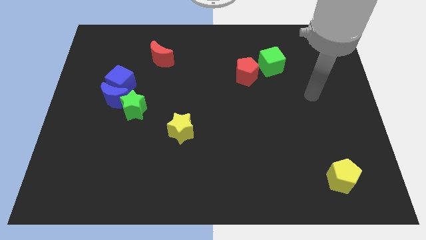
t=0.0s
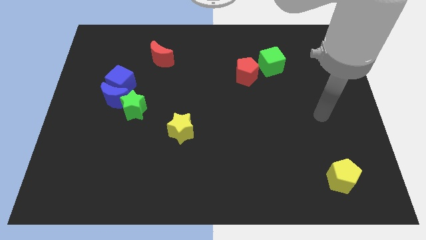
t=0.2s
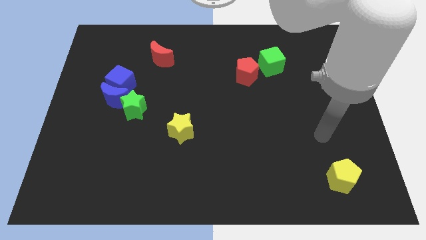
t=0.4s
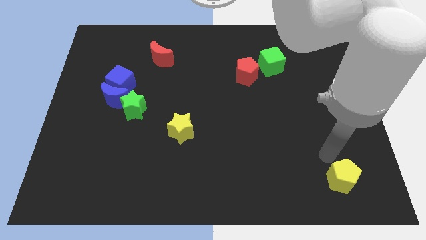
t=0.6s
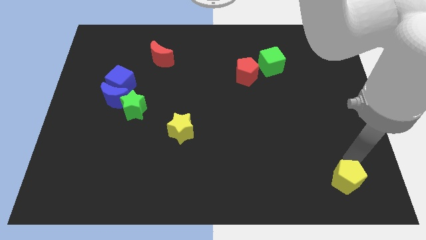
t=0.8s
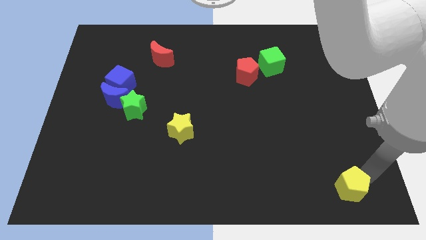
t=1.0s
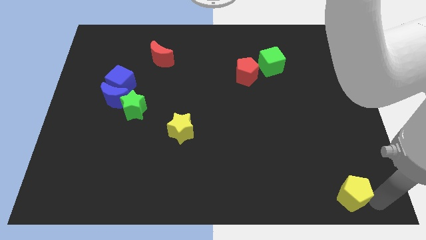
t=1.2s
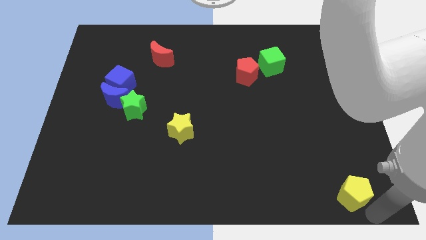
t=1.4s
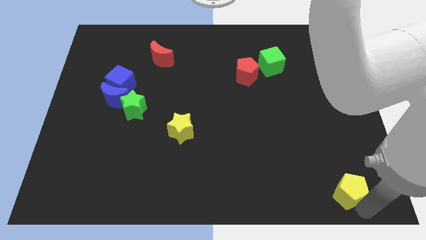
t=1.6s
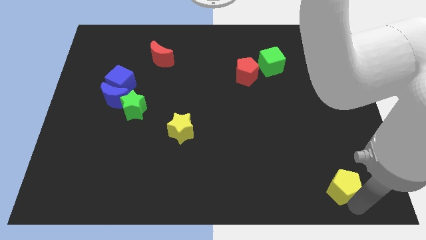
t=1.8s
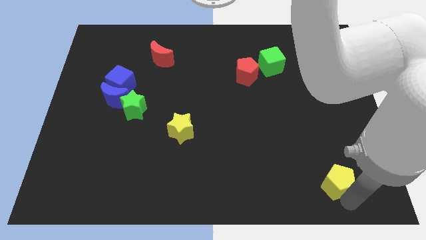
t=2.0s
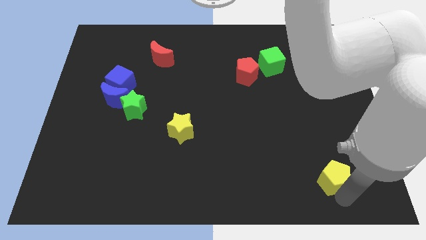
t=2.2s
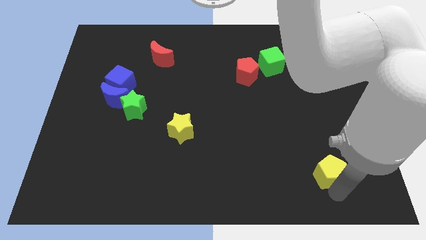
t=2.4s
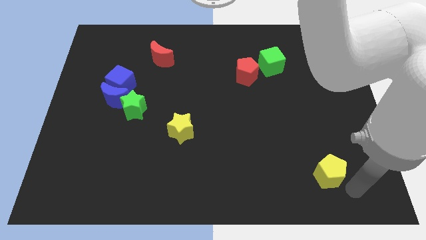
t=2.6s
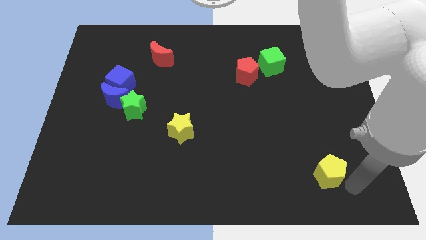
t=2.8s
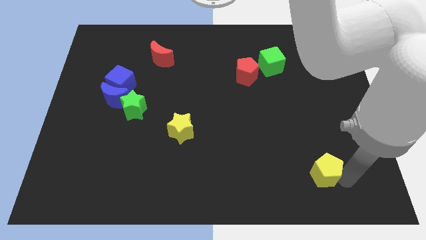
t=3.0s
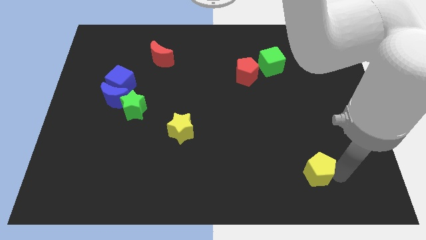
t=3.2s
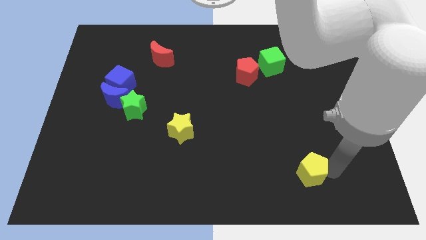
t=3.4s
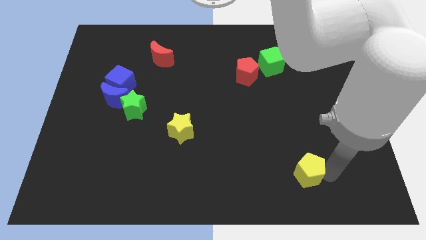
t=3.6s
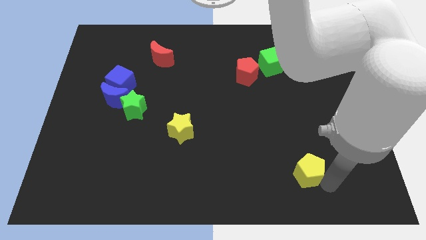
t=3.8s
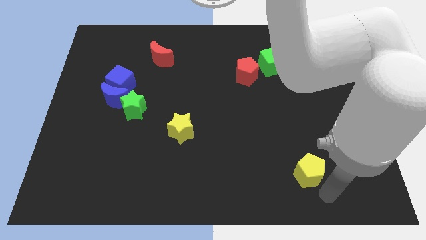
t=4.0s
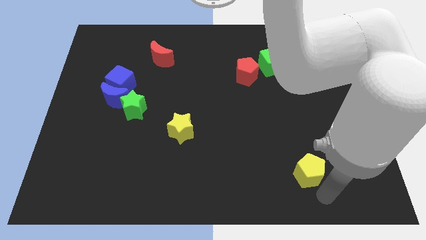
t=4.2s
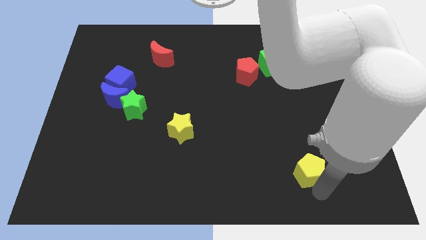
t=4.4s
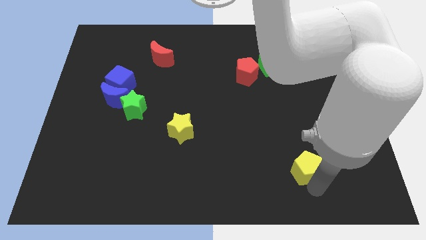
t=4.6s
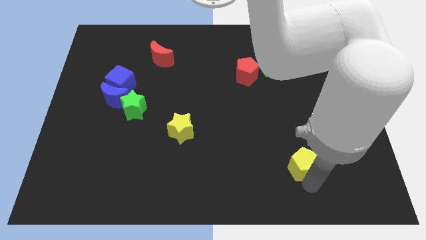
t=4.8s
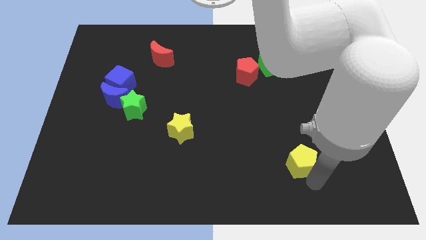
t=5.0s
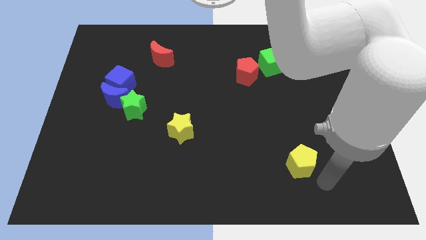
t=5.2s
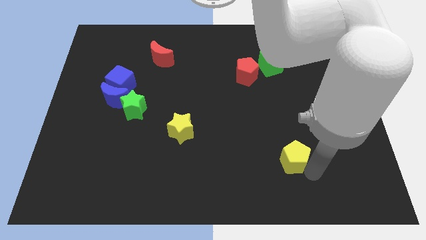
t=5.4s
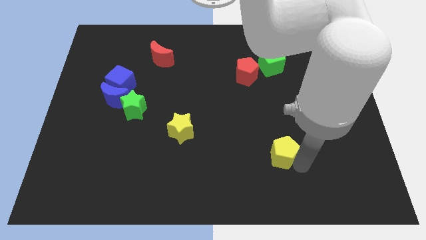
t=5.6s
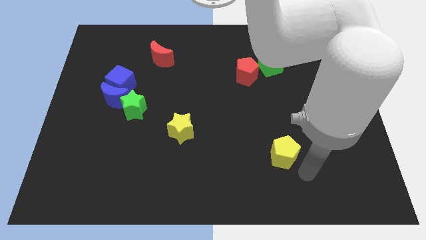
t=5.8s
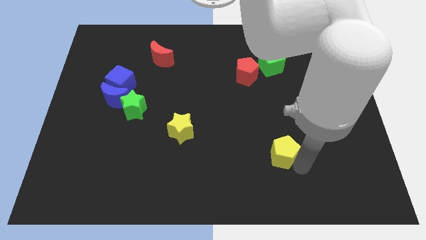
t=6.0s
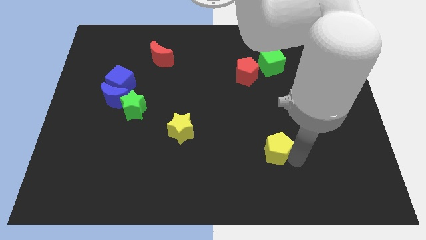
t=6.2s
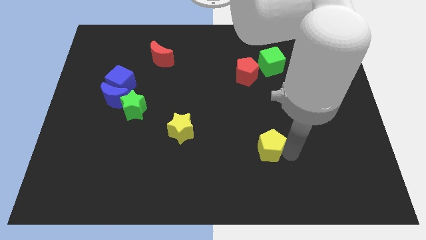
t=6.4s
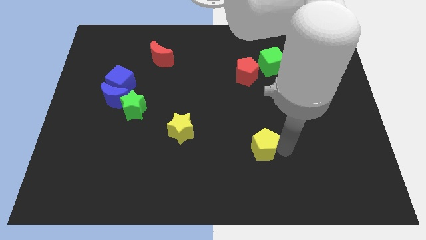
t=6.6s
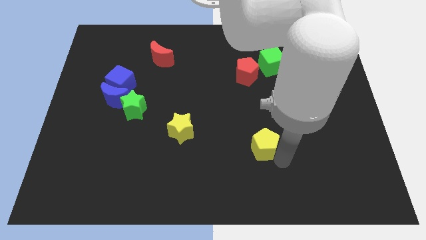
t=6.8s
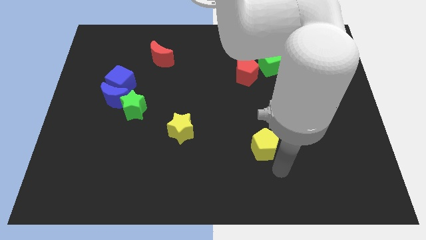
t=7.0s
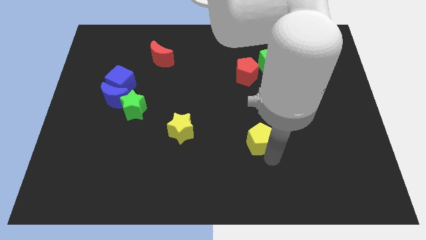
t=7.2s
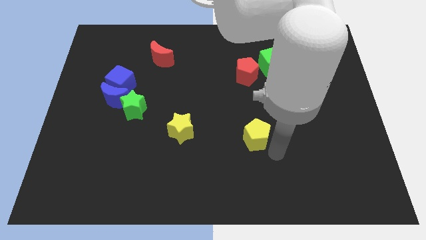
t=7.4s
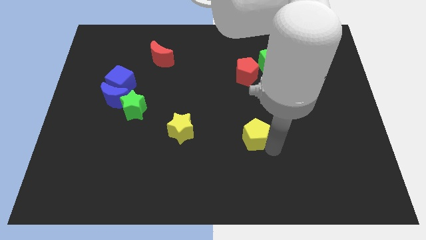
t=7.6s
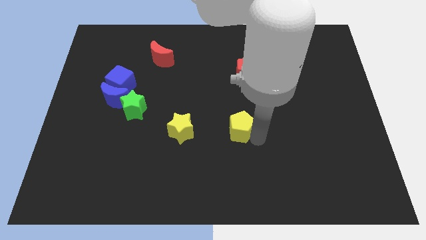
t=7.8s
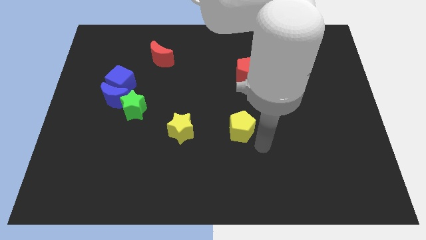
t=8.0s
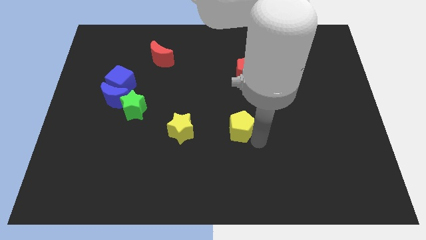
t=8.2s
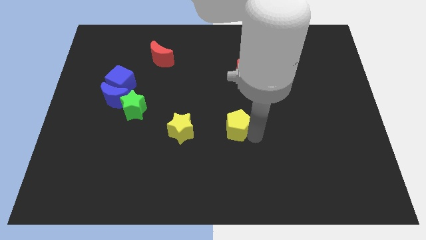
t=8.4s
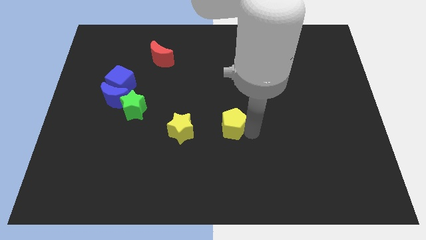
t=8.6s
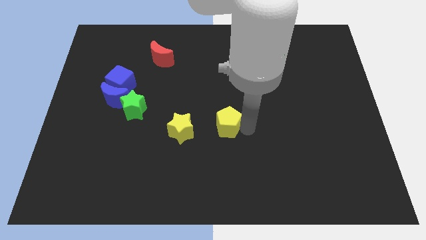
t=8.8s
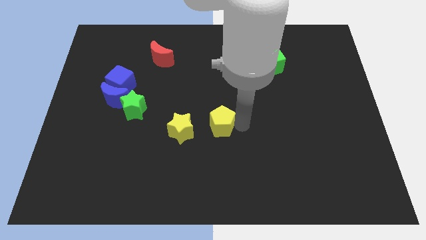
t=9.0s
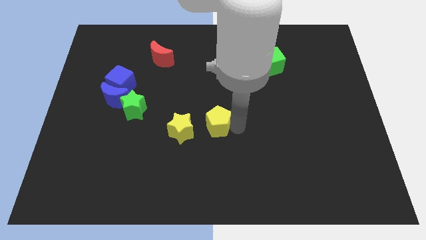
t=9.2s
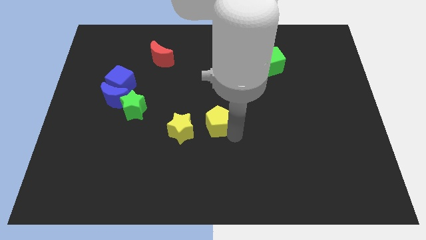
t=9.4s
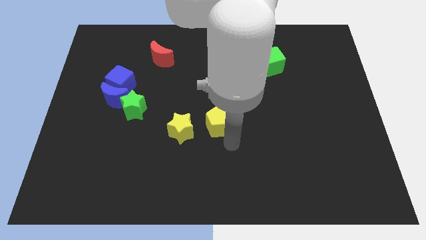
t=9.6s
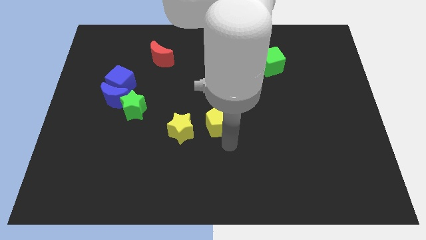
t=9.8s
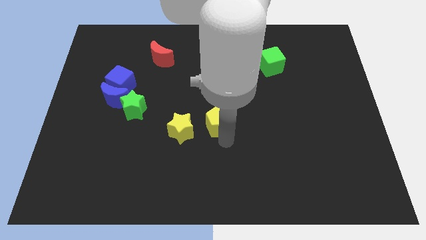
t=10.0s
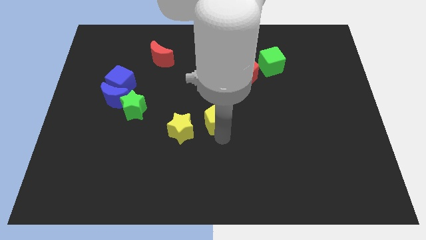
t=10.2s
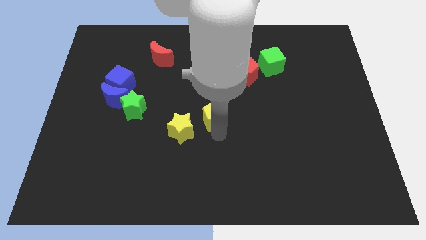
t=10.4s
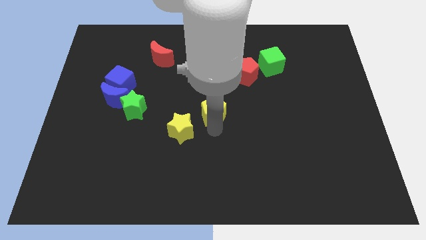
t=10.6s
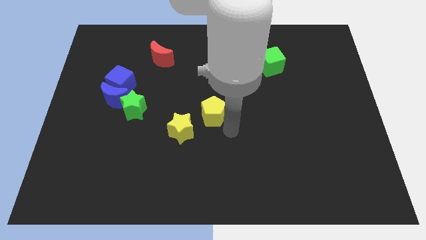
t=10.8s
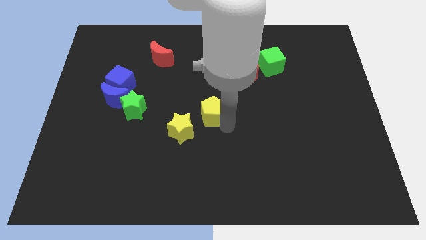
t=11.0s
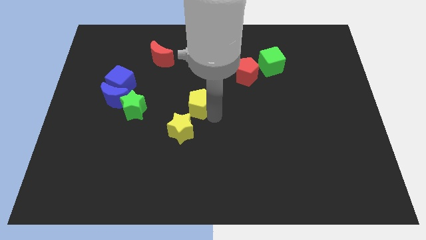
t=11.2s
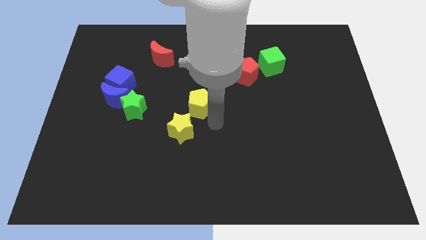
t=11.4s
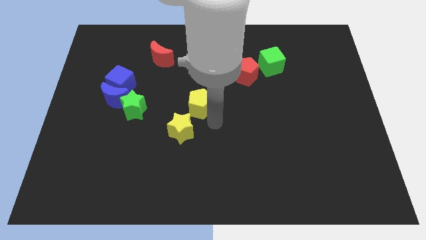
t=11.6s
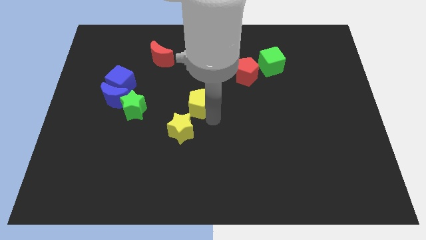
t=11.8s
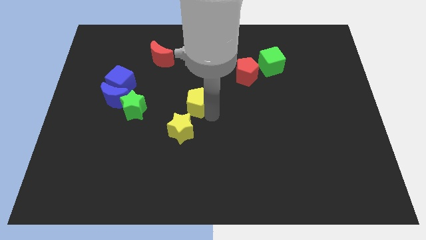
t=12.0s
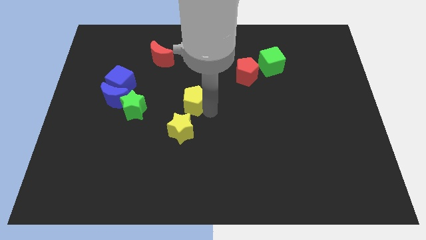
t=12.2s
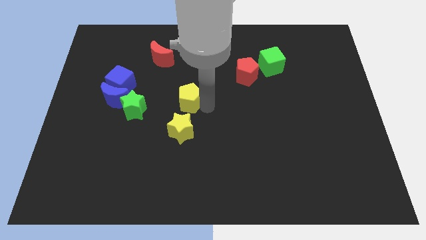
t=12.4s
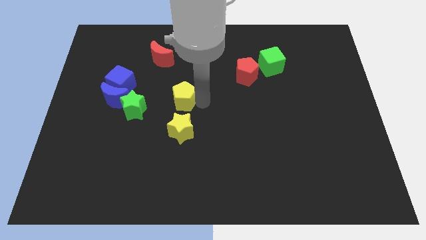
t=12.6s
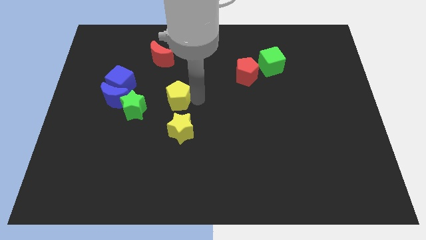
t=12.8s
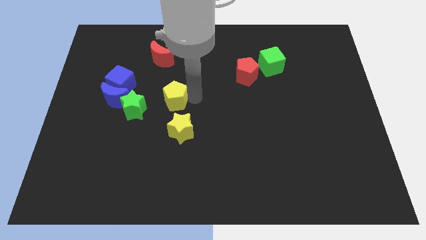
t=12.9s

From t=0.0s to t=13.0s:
move the yellow pentagon right of the blue cube
